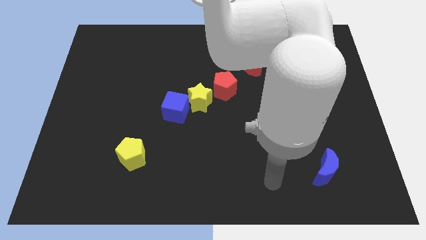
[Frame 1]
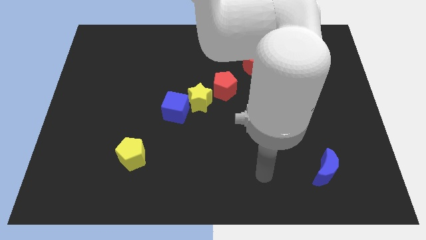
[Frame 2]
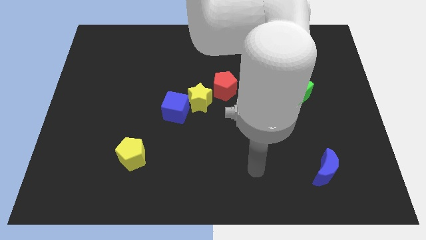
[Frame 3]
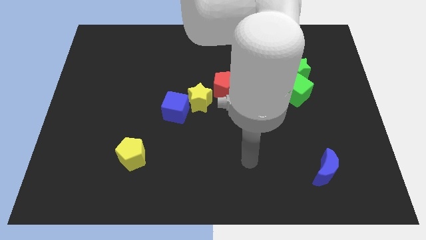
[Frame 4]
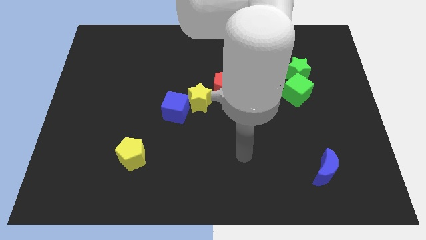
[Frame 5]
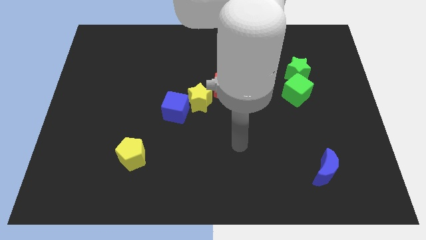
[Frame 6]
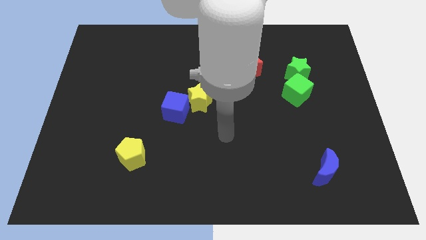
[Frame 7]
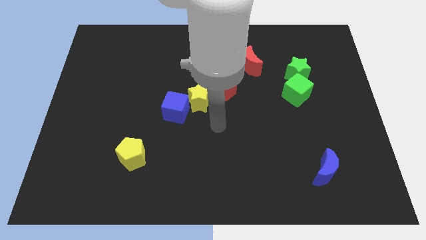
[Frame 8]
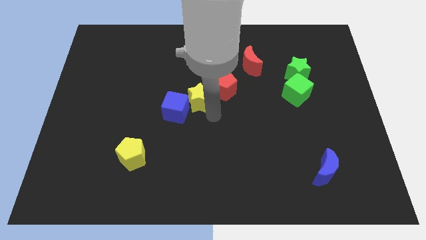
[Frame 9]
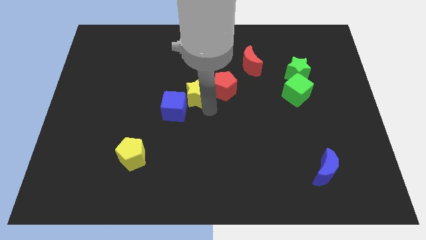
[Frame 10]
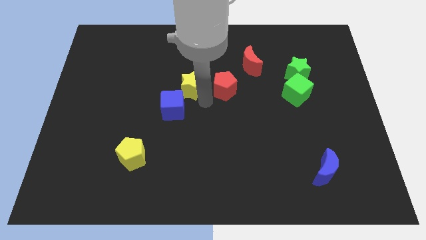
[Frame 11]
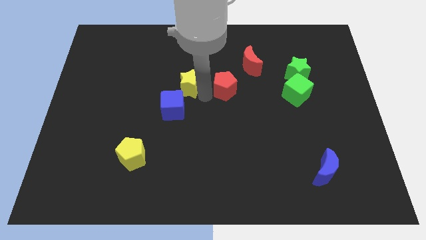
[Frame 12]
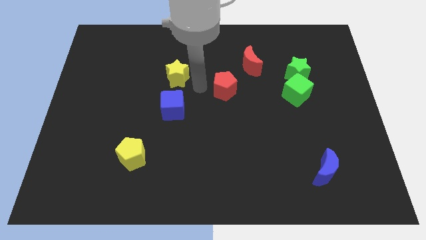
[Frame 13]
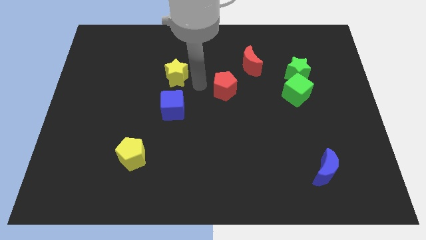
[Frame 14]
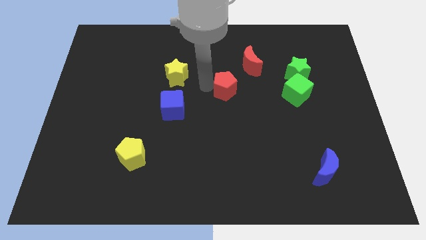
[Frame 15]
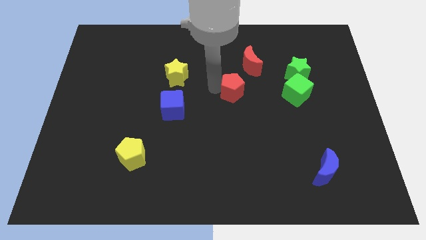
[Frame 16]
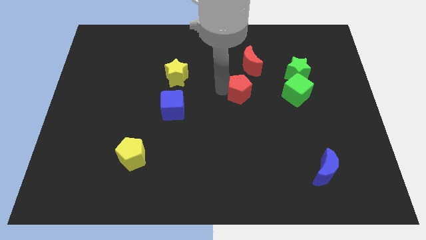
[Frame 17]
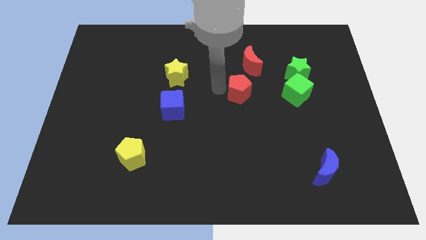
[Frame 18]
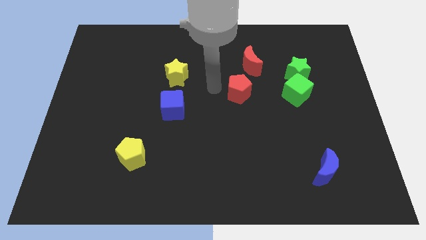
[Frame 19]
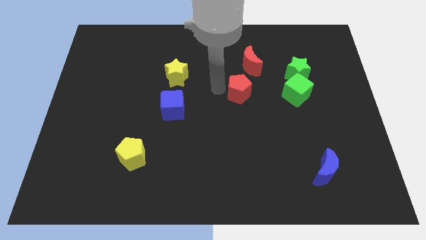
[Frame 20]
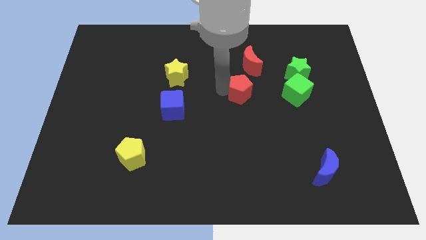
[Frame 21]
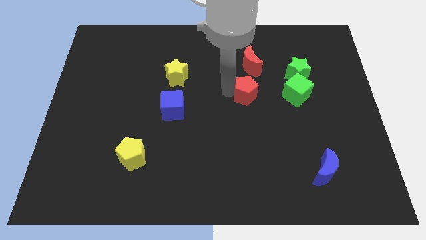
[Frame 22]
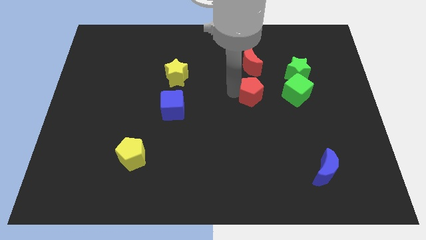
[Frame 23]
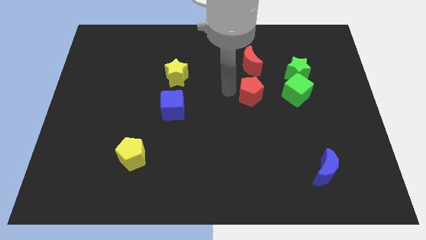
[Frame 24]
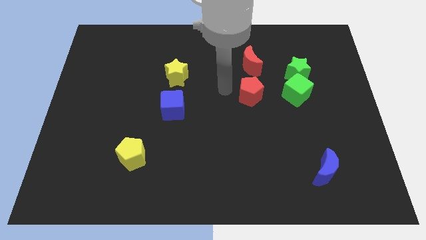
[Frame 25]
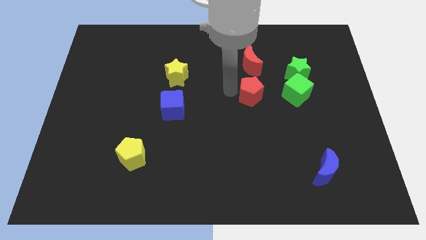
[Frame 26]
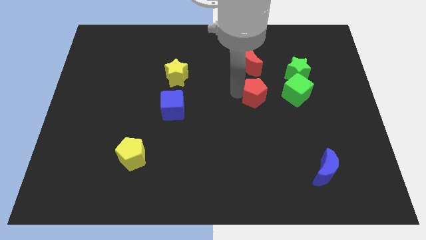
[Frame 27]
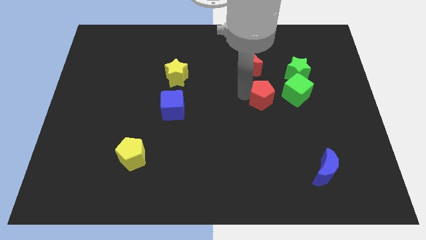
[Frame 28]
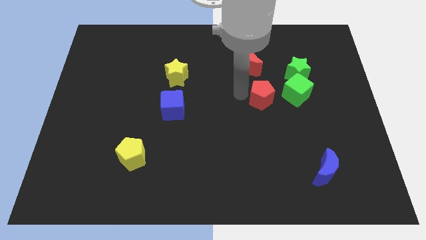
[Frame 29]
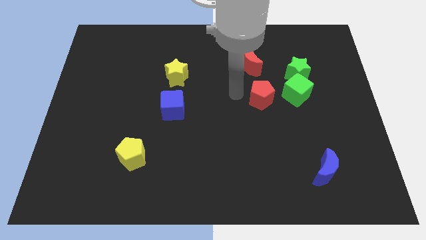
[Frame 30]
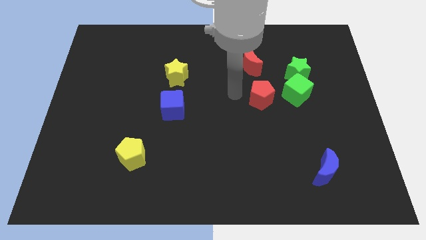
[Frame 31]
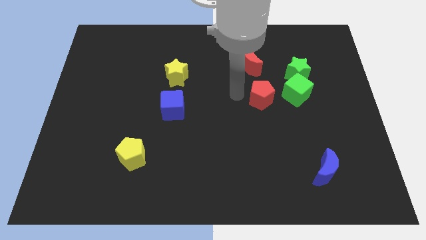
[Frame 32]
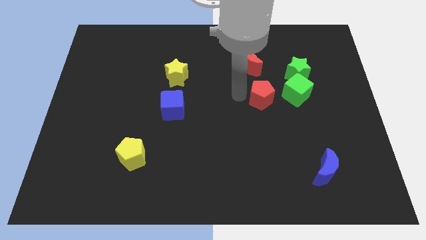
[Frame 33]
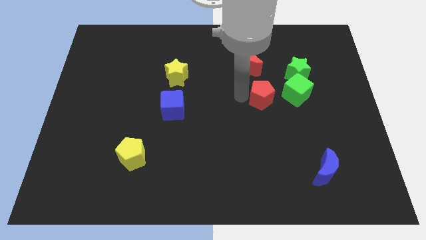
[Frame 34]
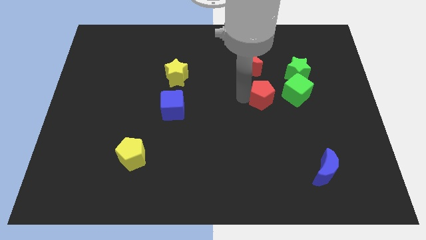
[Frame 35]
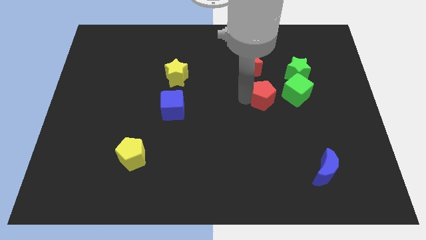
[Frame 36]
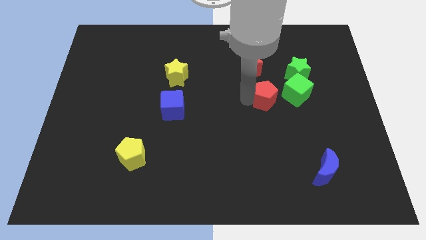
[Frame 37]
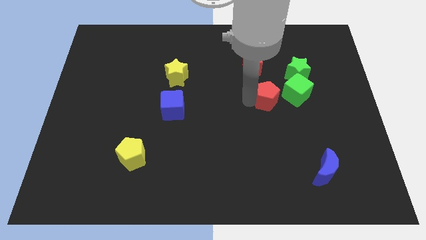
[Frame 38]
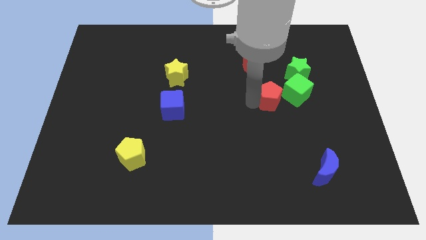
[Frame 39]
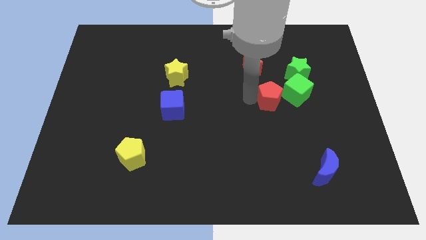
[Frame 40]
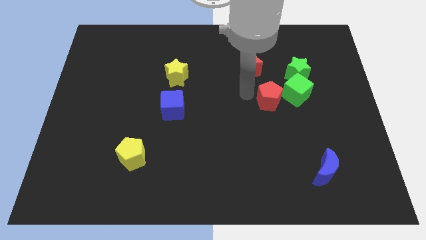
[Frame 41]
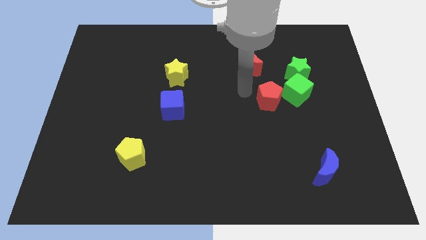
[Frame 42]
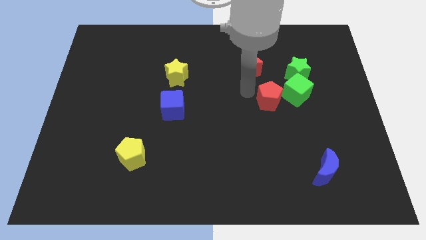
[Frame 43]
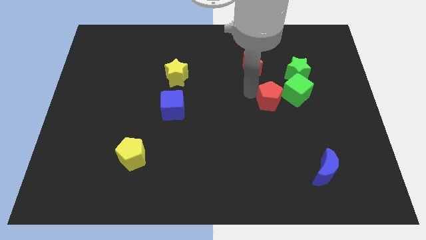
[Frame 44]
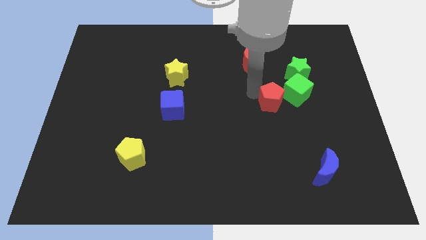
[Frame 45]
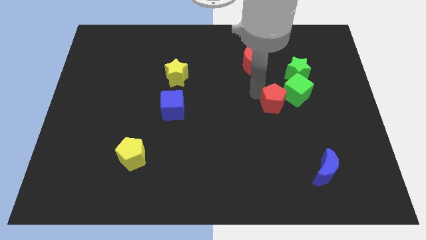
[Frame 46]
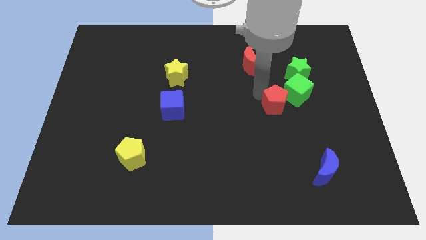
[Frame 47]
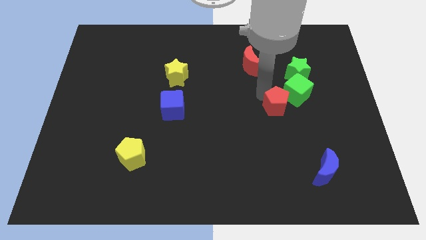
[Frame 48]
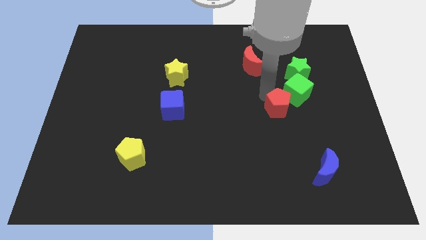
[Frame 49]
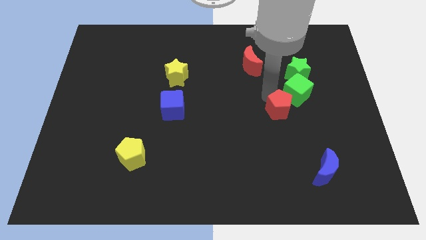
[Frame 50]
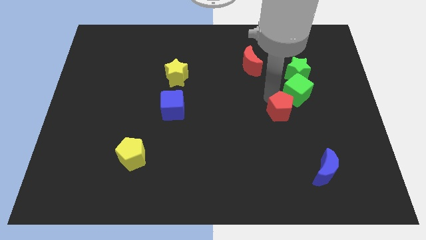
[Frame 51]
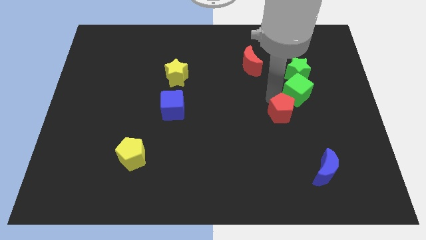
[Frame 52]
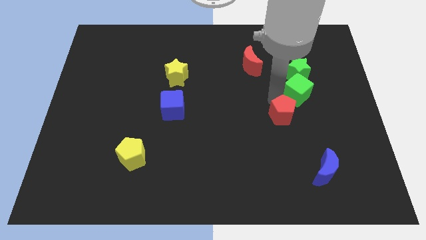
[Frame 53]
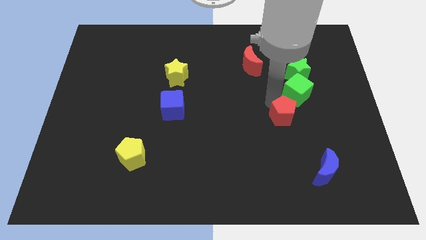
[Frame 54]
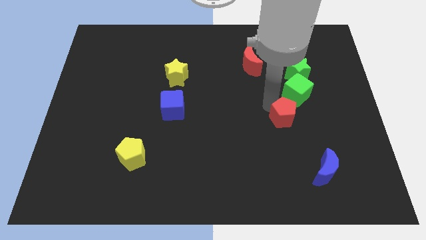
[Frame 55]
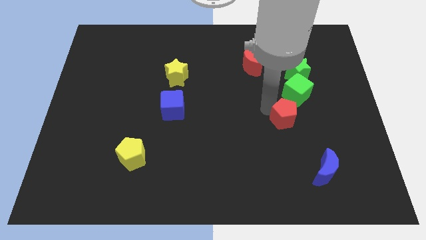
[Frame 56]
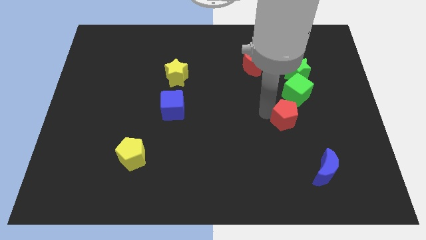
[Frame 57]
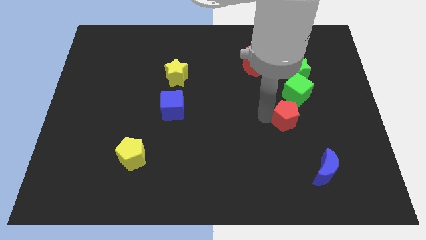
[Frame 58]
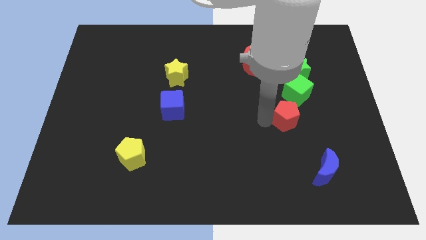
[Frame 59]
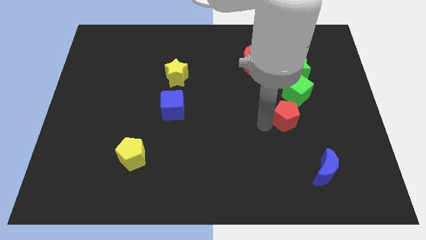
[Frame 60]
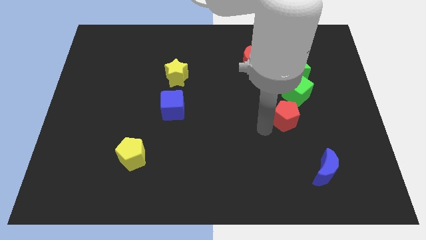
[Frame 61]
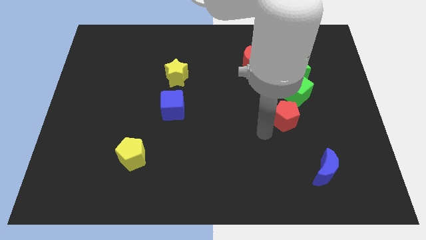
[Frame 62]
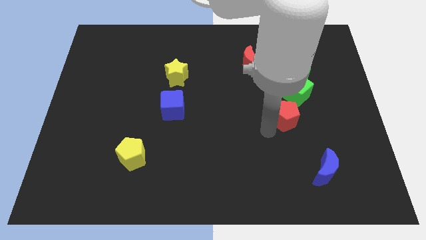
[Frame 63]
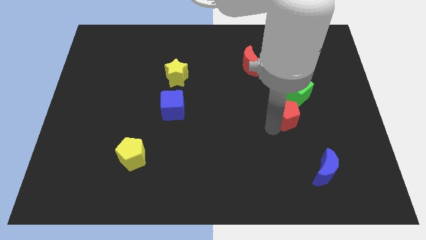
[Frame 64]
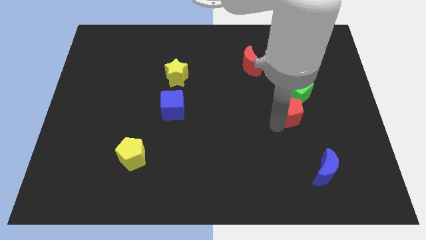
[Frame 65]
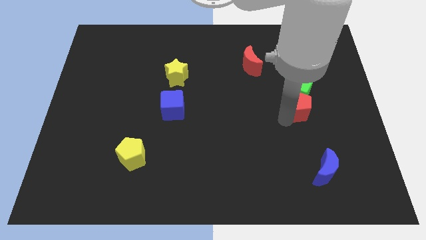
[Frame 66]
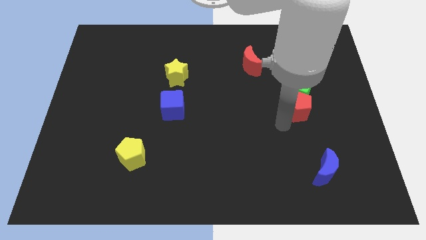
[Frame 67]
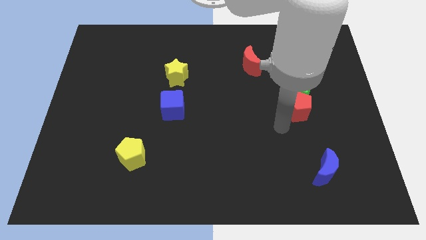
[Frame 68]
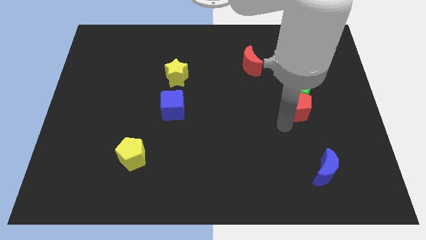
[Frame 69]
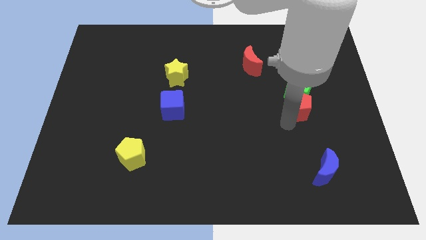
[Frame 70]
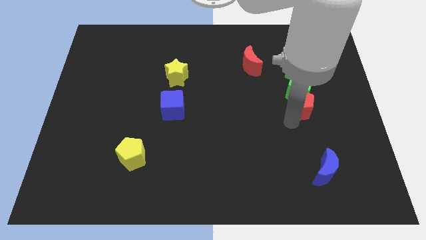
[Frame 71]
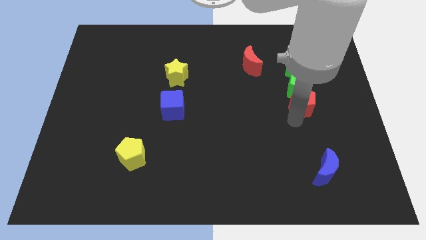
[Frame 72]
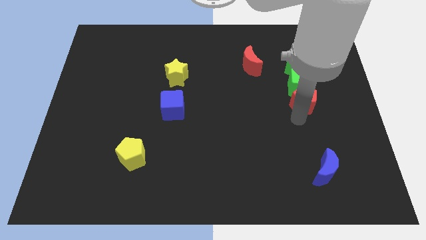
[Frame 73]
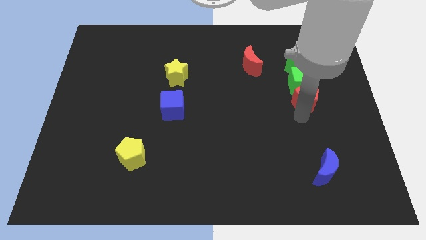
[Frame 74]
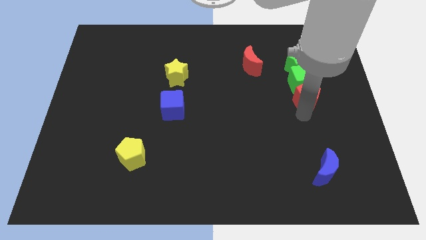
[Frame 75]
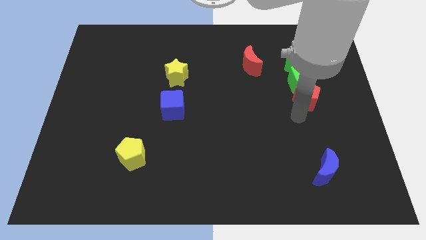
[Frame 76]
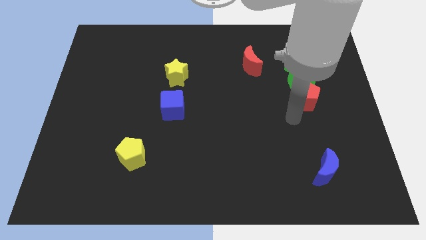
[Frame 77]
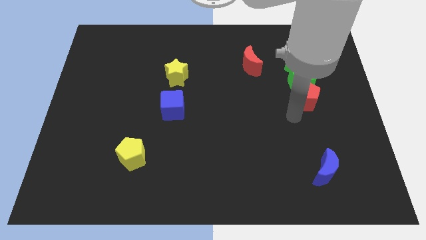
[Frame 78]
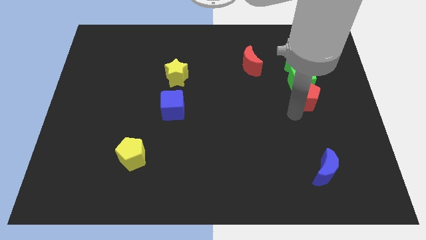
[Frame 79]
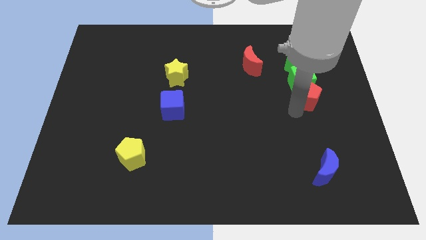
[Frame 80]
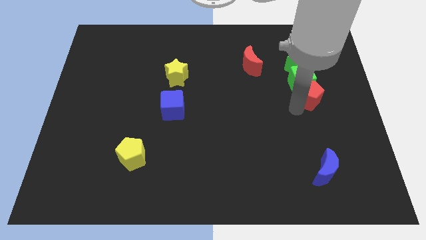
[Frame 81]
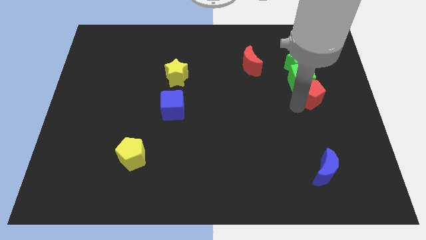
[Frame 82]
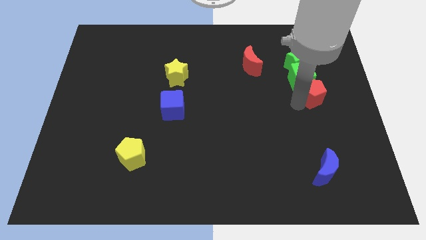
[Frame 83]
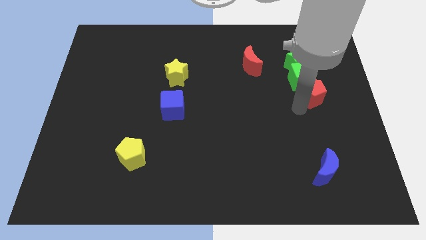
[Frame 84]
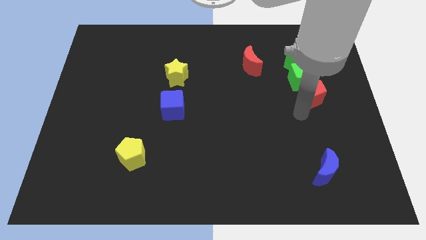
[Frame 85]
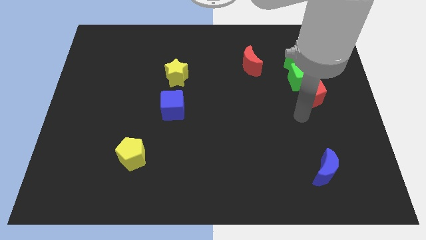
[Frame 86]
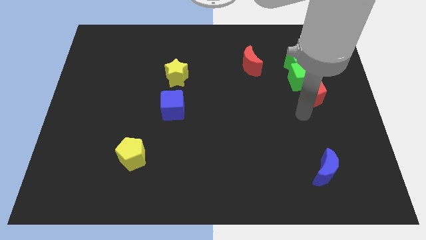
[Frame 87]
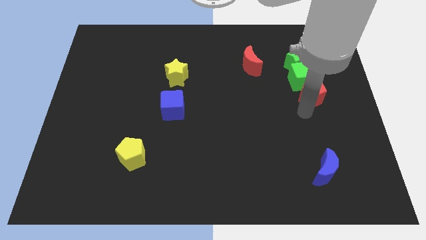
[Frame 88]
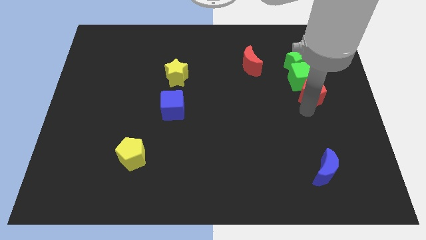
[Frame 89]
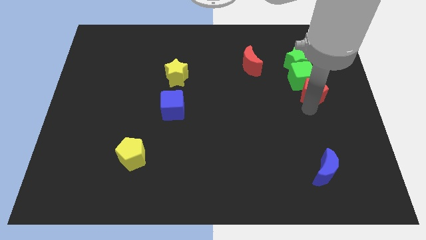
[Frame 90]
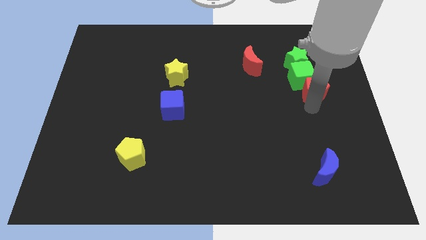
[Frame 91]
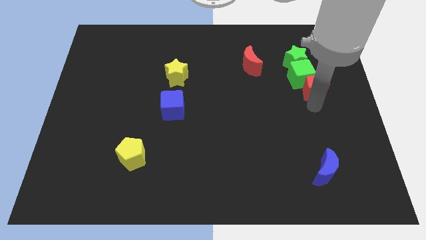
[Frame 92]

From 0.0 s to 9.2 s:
move the red pentagon to the bottom right of the green star
